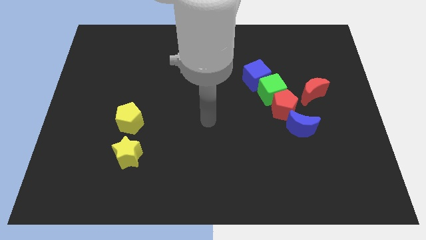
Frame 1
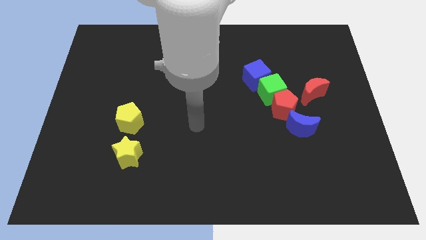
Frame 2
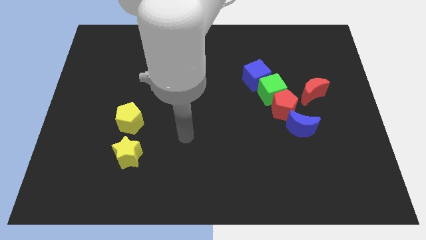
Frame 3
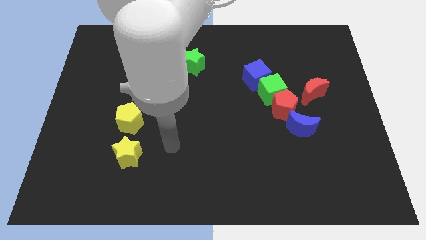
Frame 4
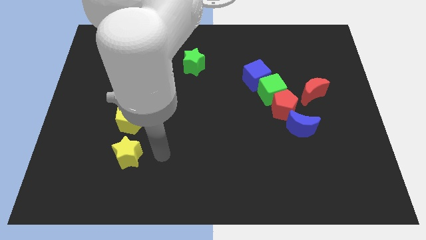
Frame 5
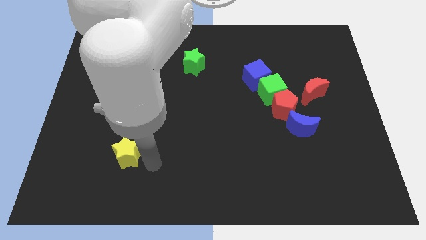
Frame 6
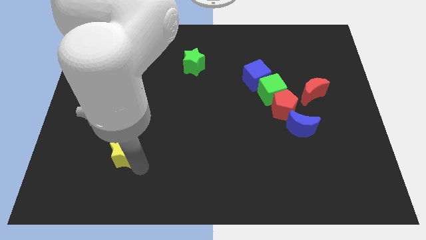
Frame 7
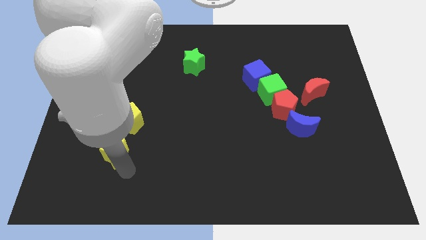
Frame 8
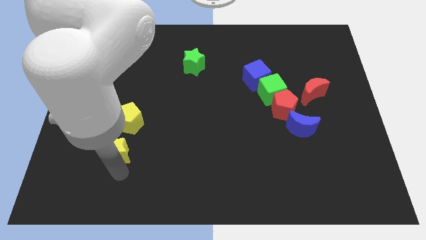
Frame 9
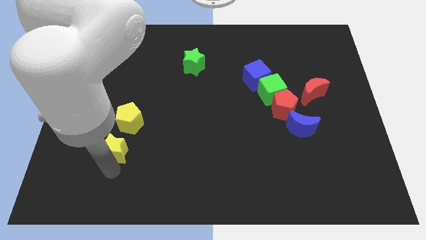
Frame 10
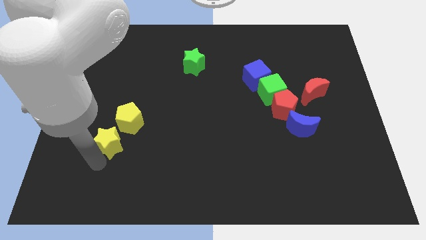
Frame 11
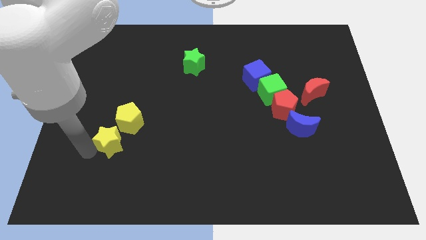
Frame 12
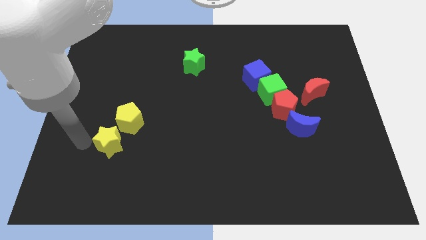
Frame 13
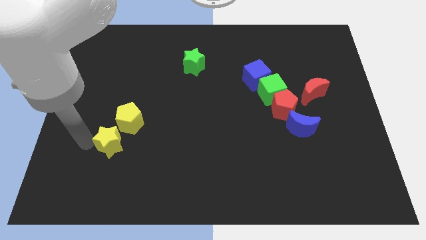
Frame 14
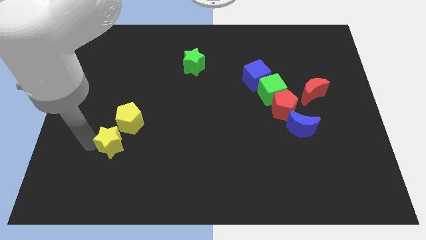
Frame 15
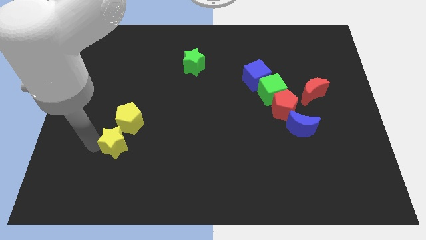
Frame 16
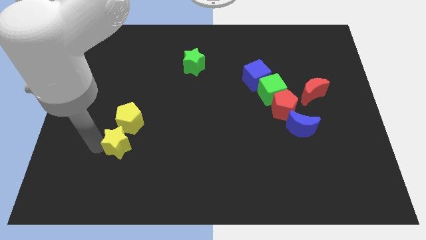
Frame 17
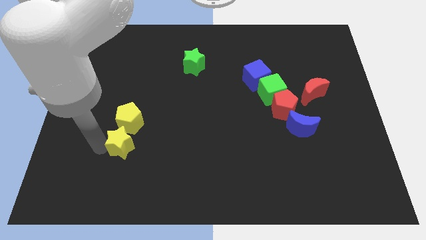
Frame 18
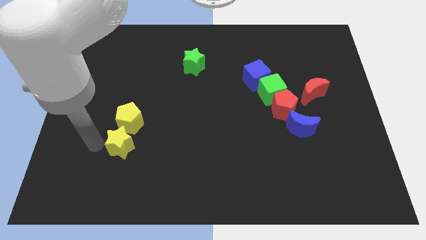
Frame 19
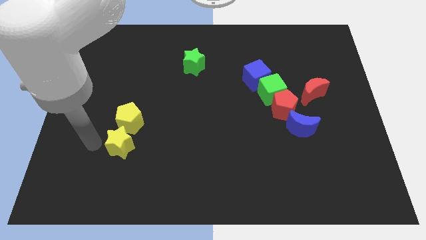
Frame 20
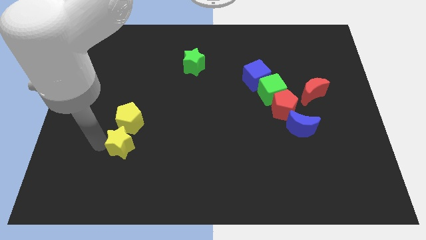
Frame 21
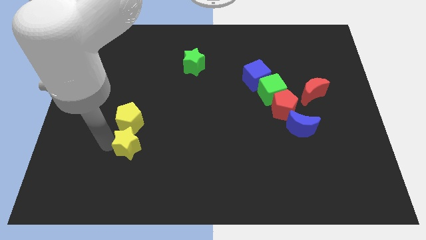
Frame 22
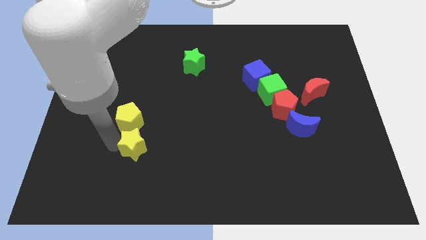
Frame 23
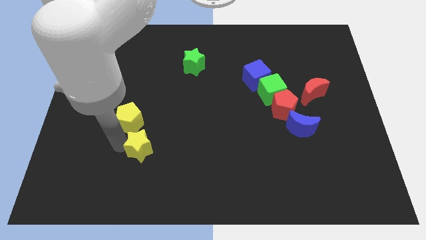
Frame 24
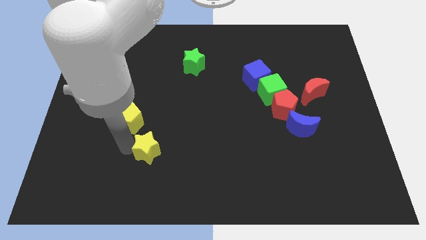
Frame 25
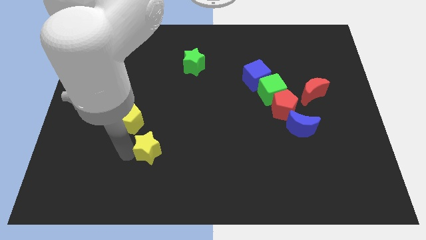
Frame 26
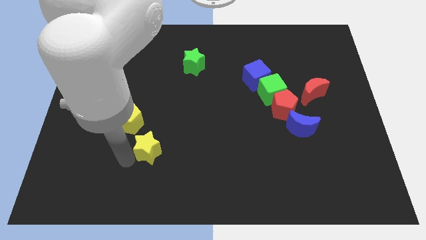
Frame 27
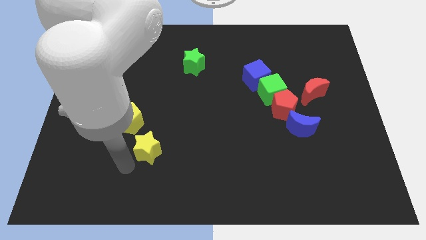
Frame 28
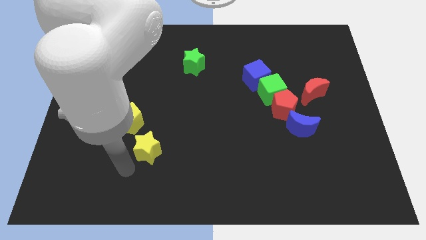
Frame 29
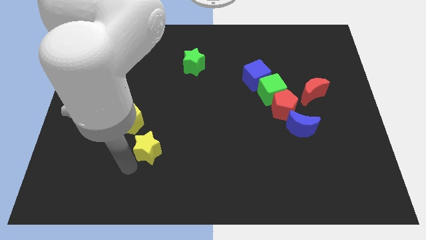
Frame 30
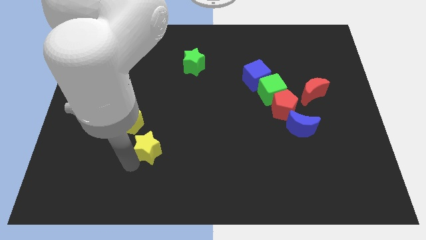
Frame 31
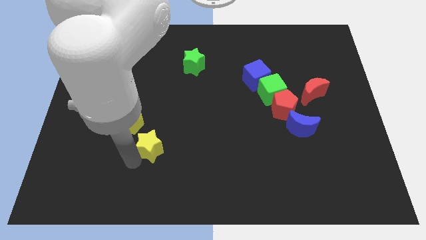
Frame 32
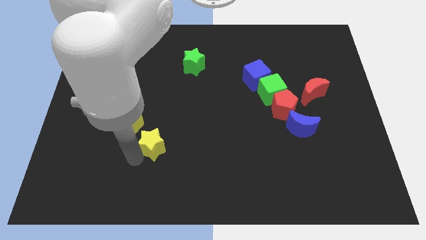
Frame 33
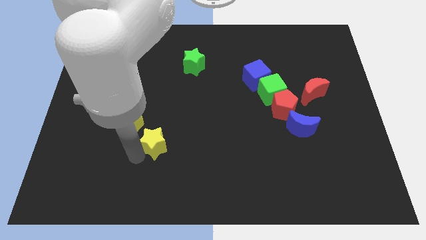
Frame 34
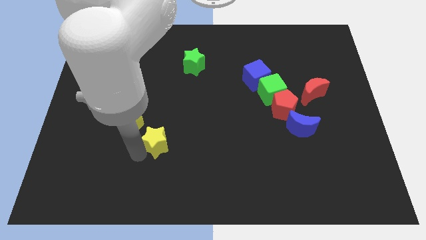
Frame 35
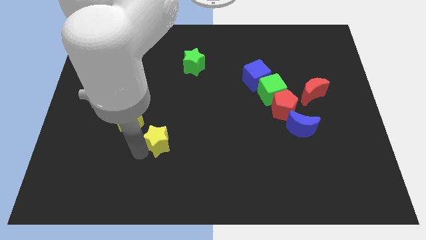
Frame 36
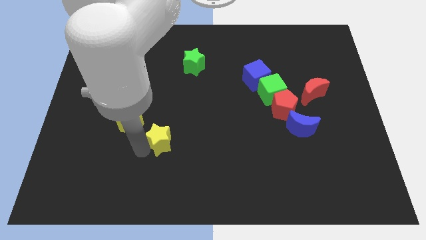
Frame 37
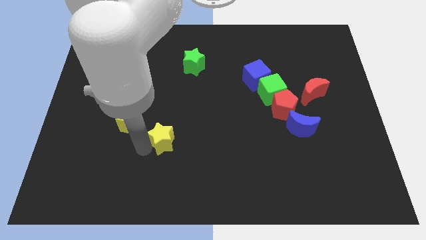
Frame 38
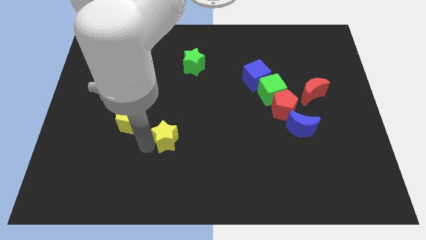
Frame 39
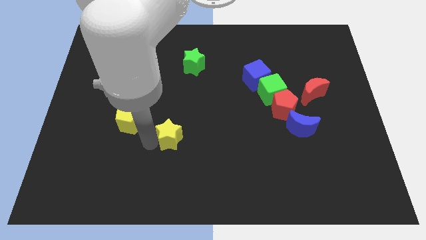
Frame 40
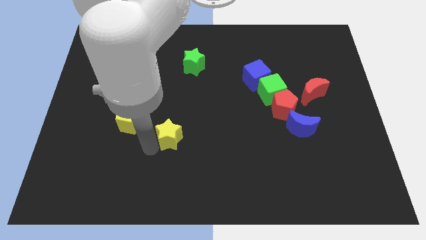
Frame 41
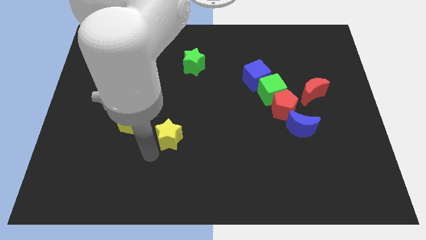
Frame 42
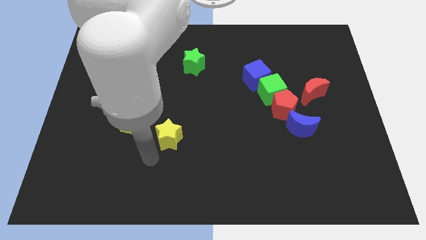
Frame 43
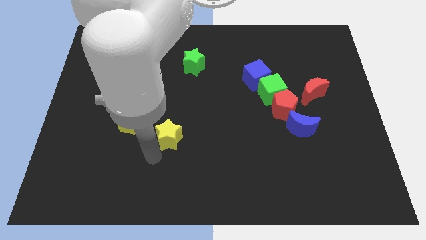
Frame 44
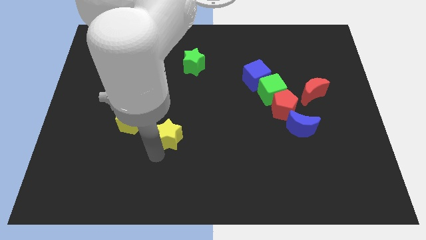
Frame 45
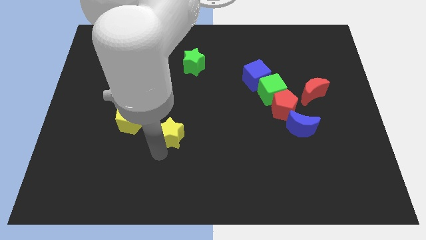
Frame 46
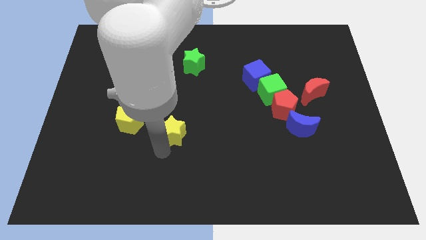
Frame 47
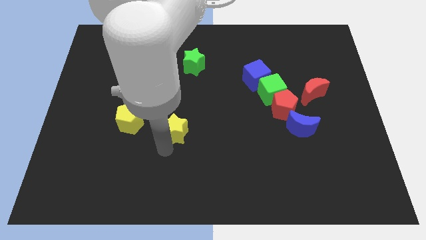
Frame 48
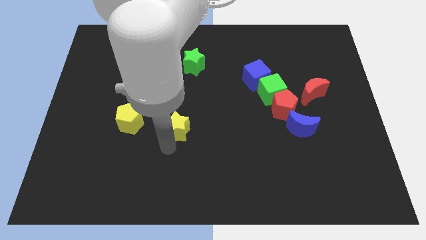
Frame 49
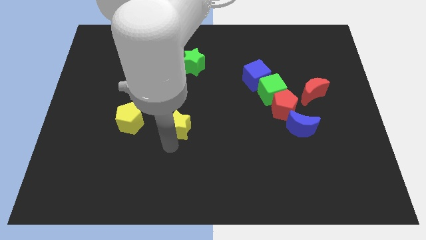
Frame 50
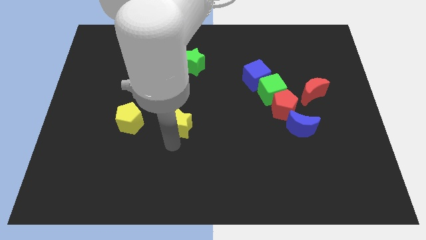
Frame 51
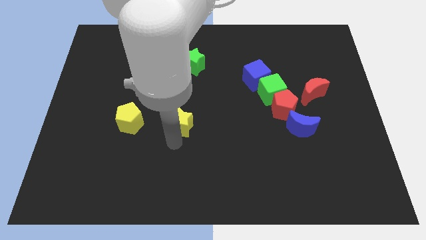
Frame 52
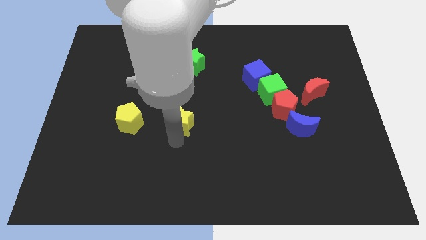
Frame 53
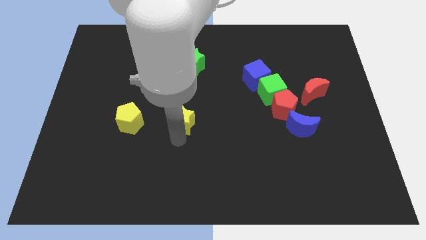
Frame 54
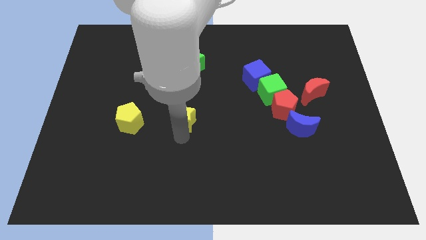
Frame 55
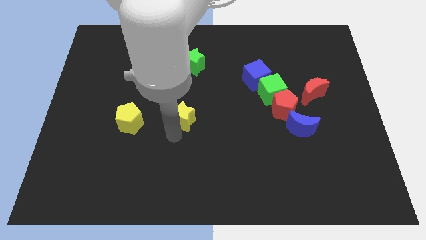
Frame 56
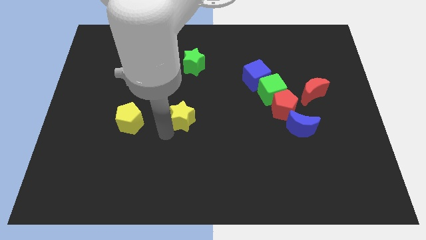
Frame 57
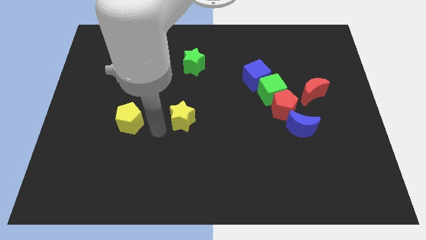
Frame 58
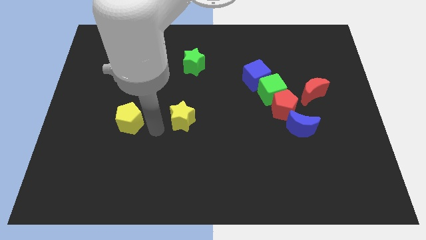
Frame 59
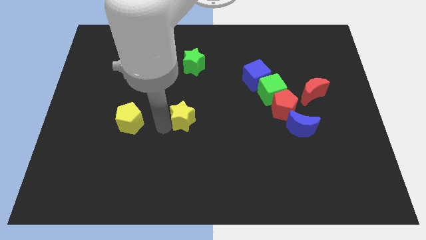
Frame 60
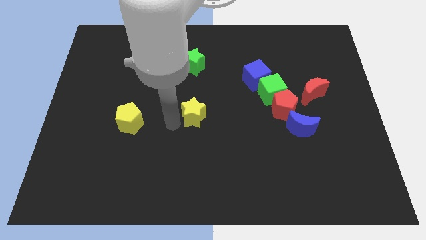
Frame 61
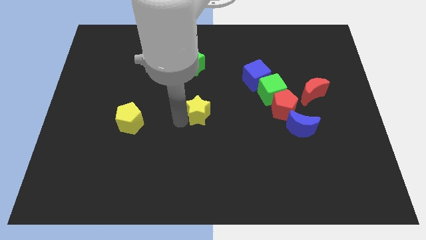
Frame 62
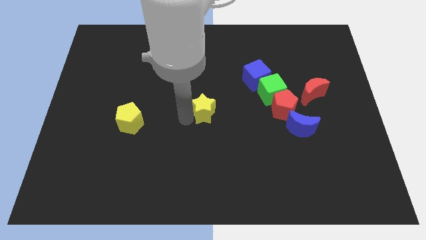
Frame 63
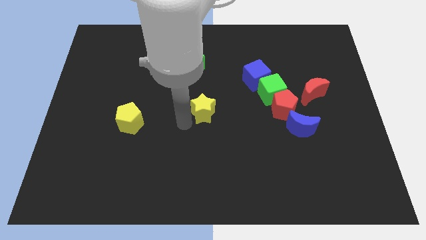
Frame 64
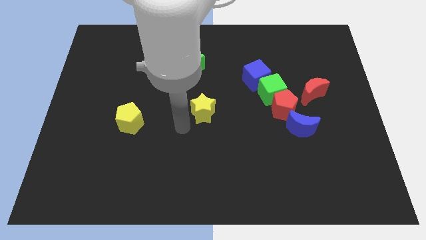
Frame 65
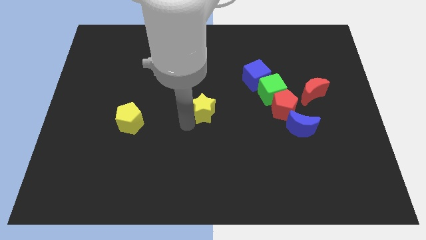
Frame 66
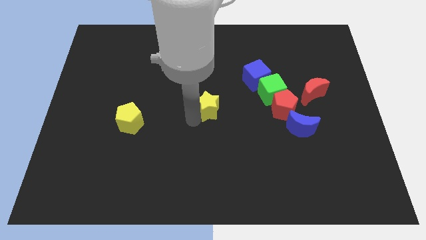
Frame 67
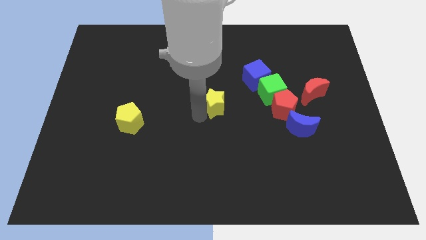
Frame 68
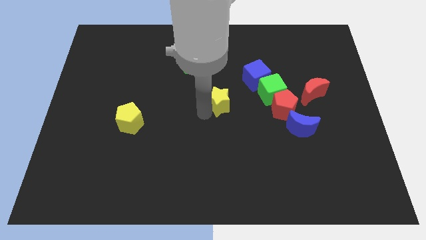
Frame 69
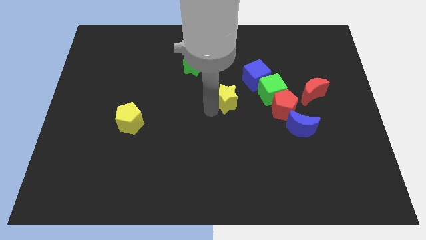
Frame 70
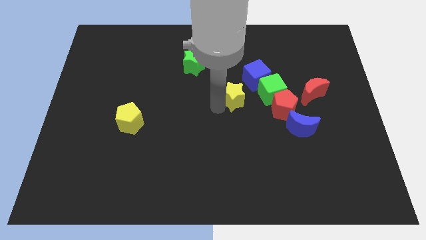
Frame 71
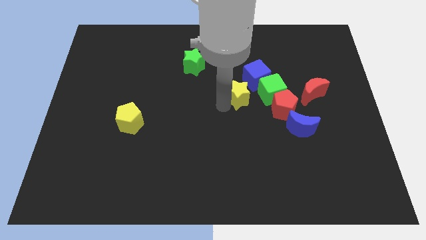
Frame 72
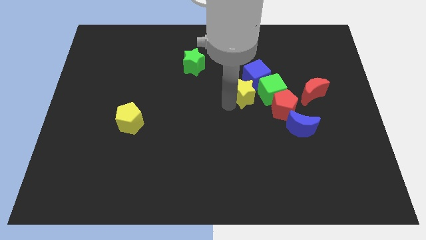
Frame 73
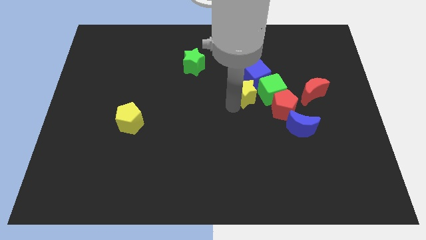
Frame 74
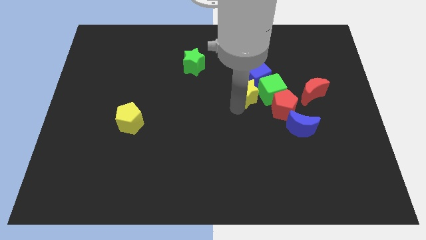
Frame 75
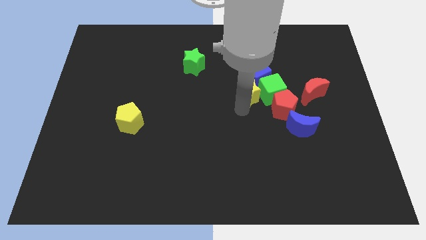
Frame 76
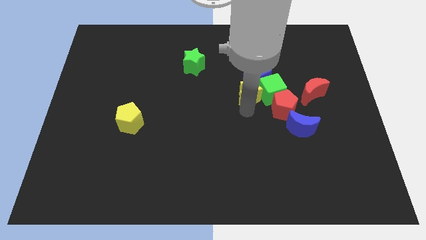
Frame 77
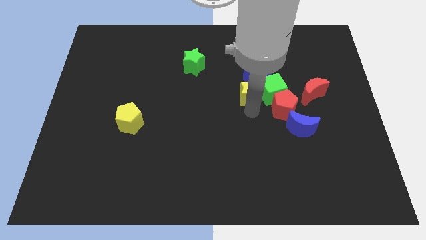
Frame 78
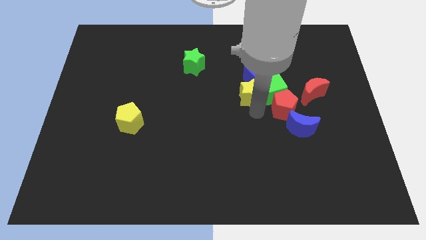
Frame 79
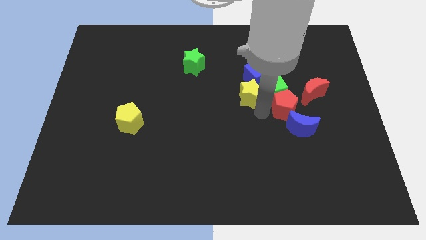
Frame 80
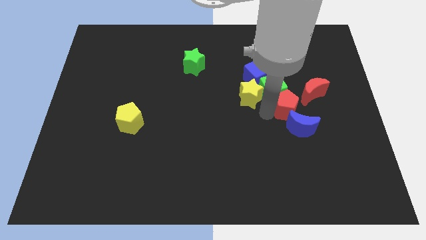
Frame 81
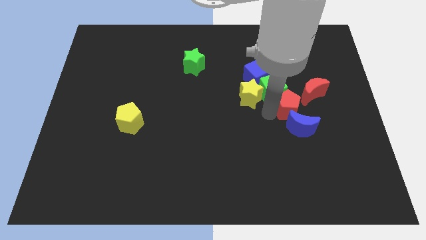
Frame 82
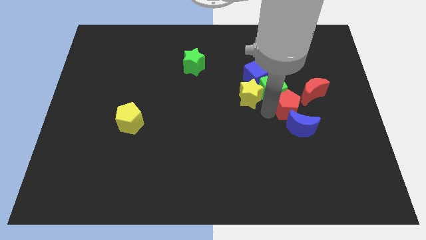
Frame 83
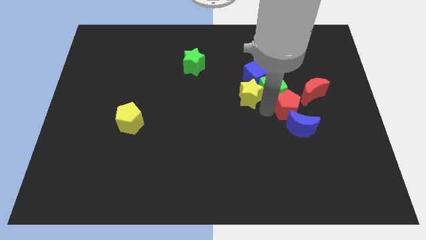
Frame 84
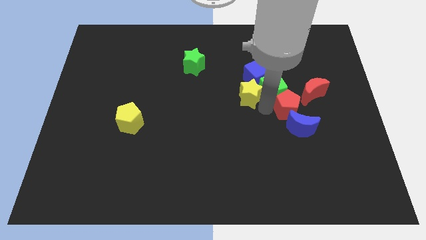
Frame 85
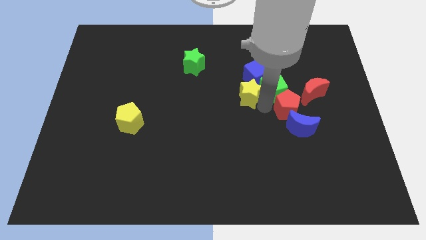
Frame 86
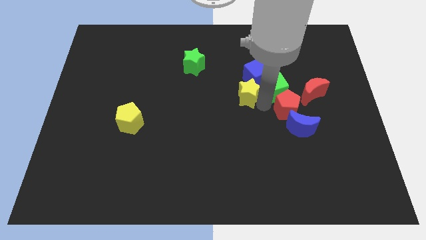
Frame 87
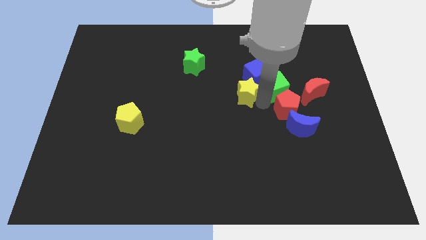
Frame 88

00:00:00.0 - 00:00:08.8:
slide the yellow star towards the blue cube

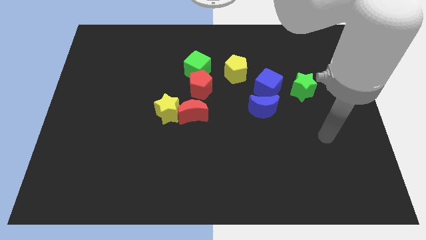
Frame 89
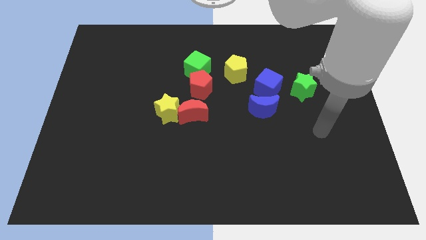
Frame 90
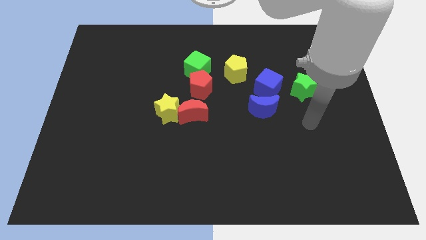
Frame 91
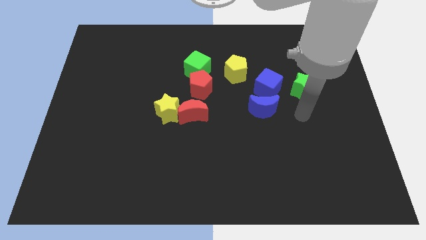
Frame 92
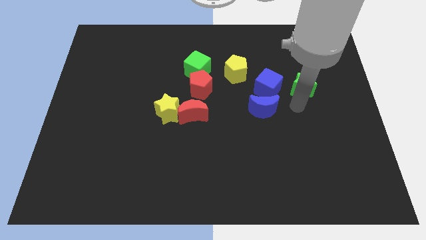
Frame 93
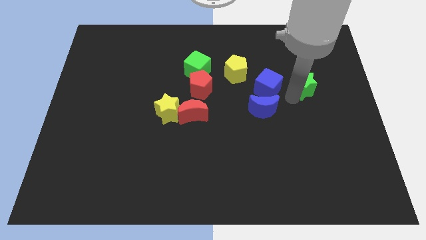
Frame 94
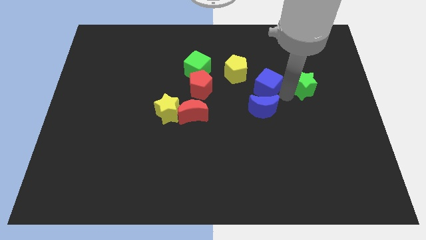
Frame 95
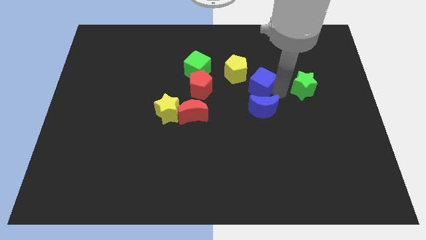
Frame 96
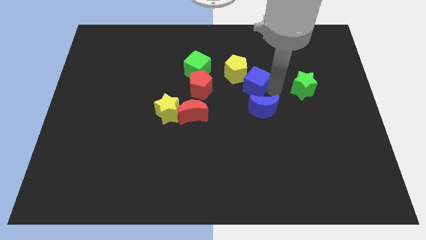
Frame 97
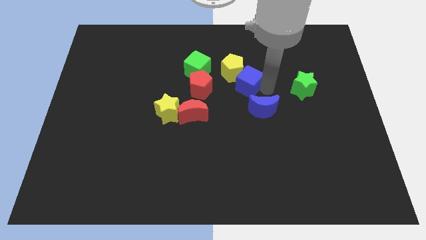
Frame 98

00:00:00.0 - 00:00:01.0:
push the blue cube close to the yellow pentagon
